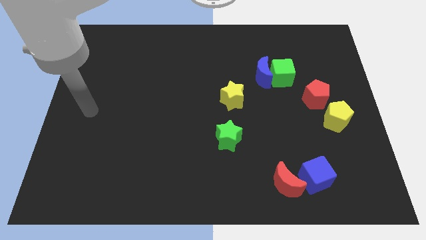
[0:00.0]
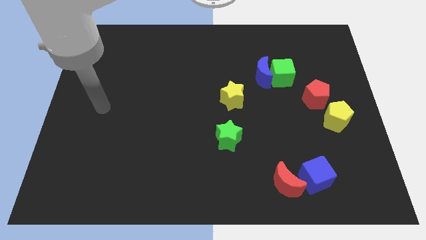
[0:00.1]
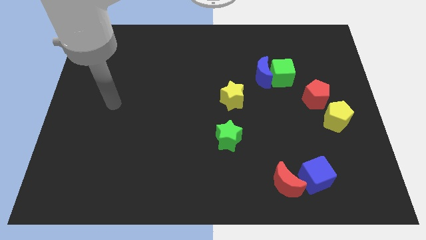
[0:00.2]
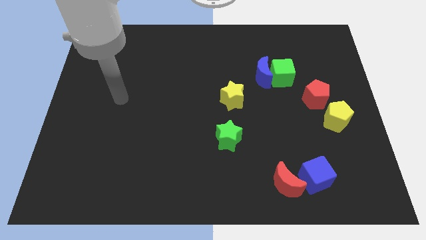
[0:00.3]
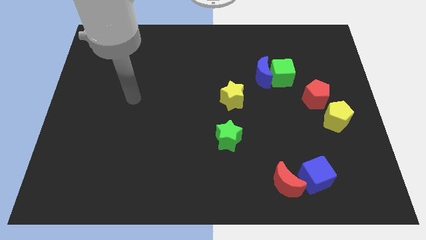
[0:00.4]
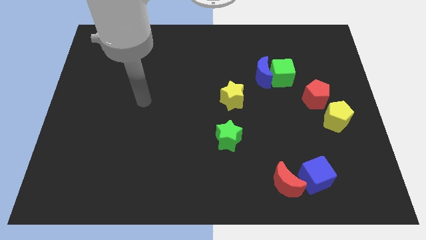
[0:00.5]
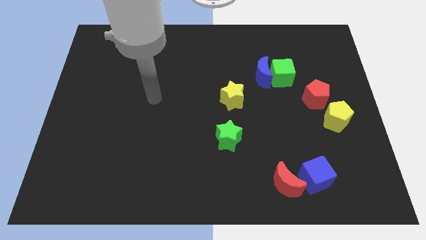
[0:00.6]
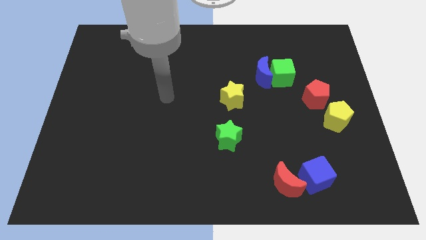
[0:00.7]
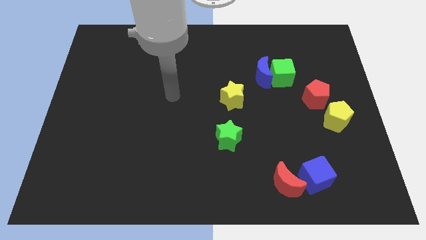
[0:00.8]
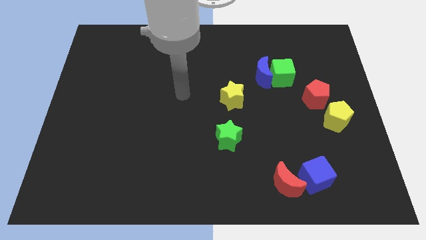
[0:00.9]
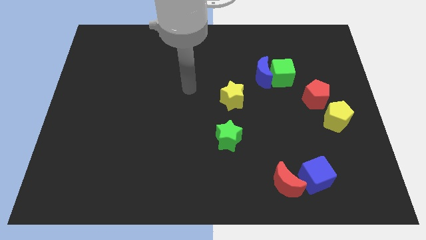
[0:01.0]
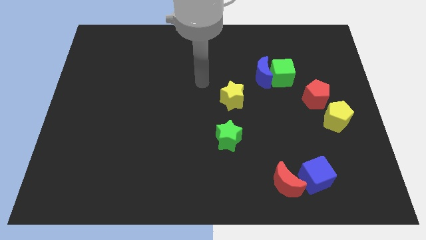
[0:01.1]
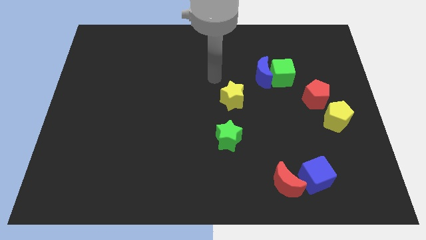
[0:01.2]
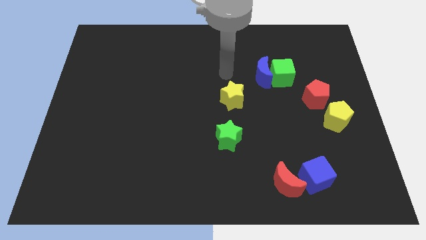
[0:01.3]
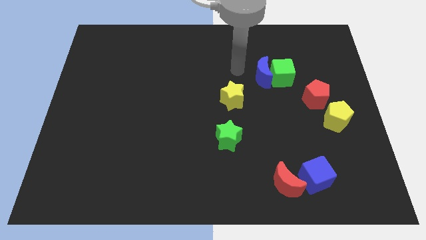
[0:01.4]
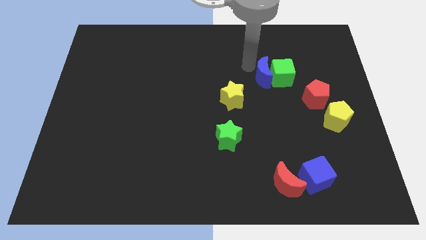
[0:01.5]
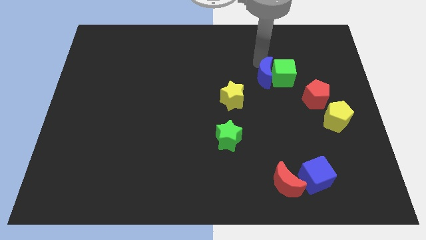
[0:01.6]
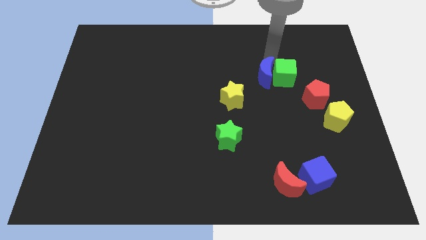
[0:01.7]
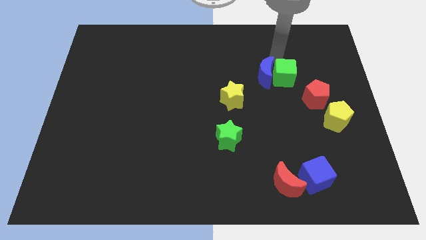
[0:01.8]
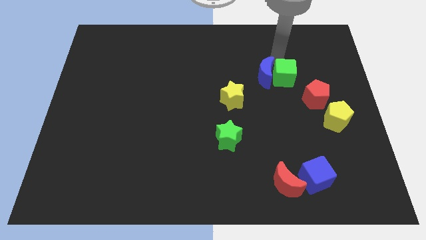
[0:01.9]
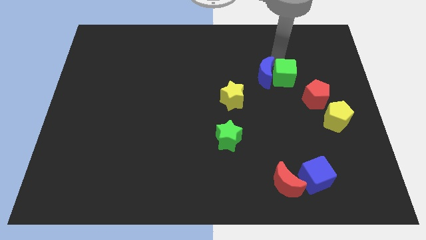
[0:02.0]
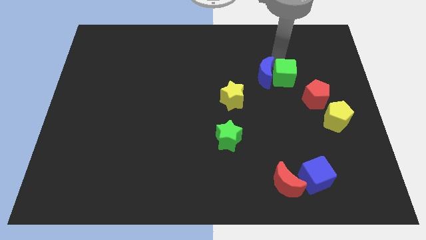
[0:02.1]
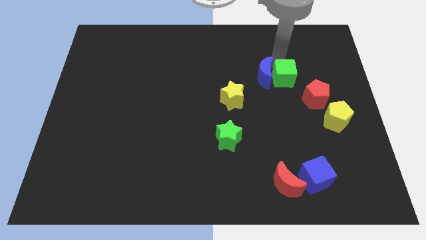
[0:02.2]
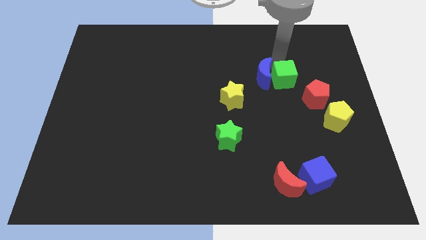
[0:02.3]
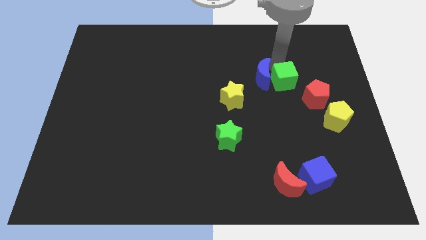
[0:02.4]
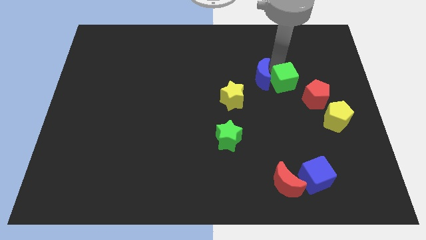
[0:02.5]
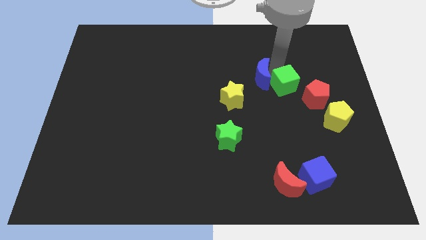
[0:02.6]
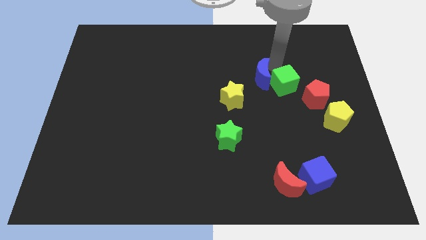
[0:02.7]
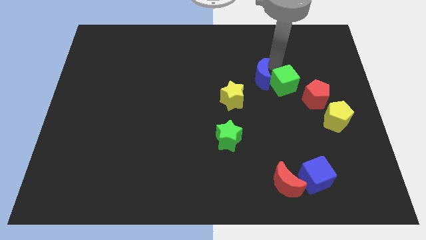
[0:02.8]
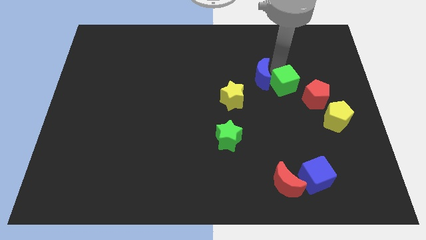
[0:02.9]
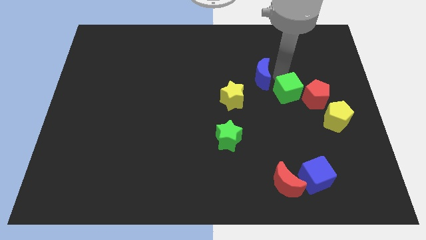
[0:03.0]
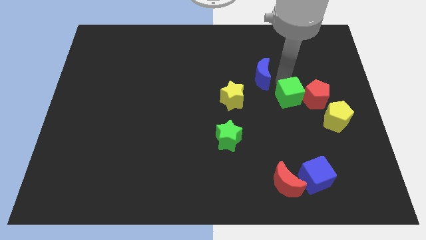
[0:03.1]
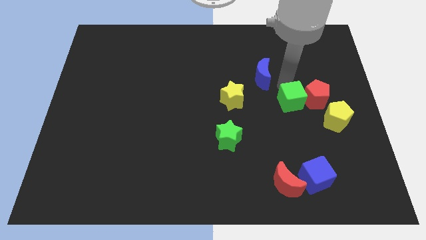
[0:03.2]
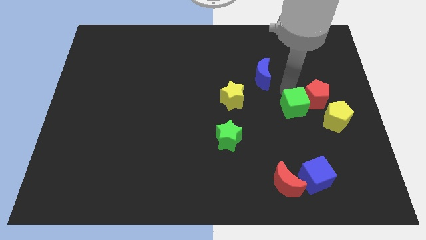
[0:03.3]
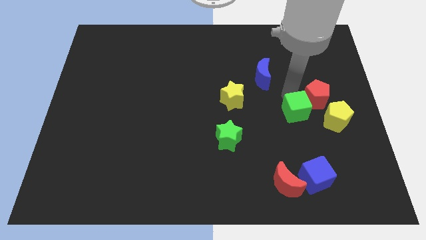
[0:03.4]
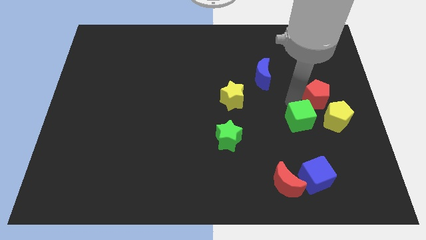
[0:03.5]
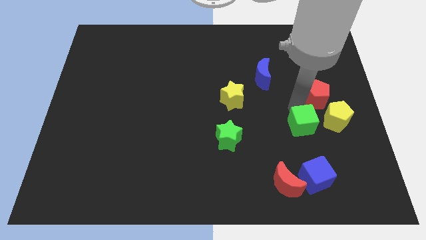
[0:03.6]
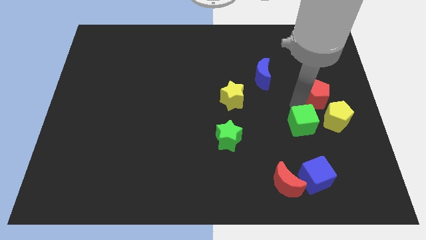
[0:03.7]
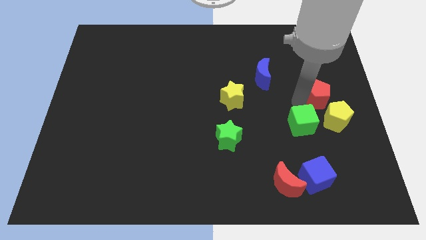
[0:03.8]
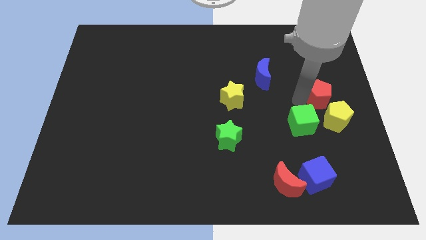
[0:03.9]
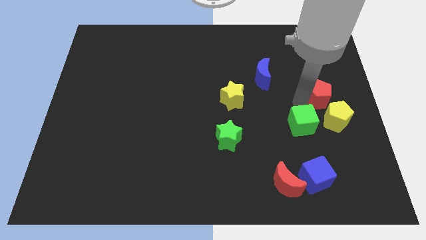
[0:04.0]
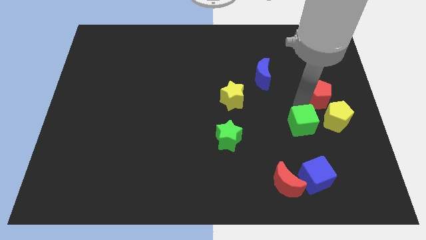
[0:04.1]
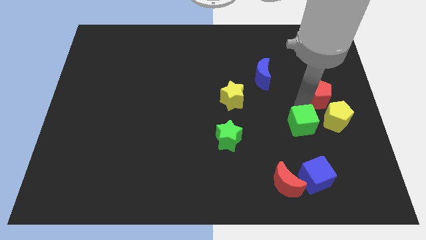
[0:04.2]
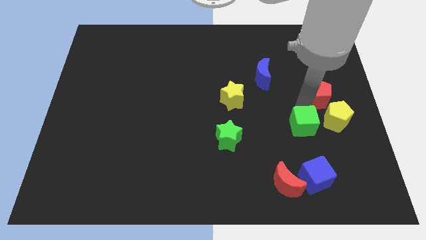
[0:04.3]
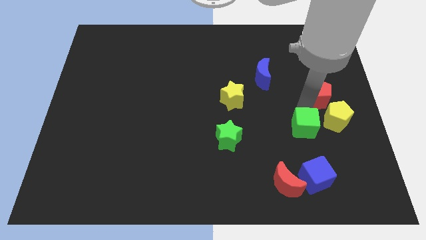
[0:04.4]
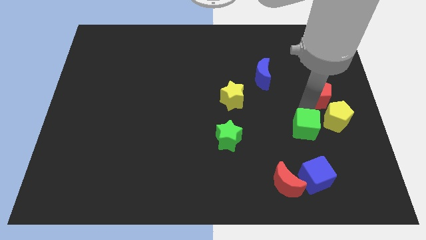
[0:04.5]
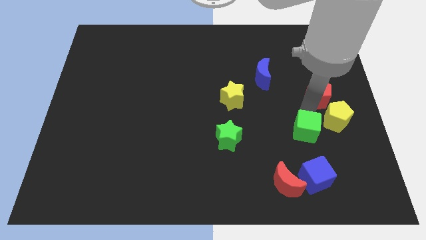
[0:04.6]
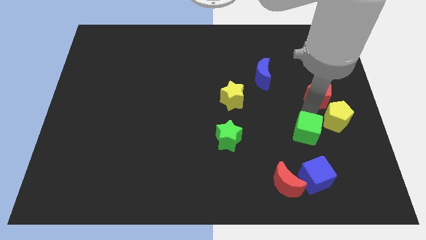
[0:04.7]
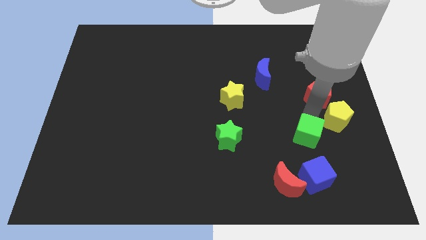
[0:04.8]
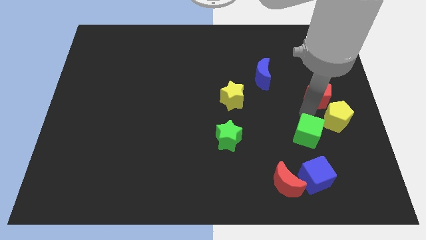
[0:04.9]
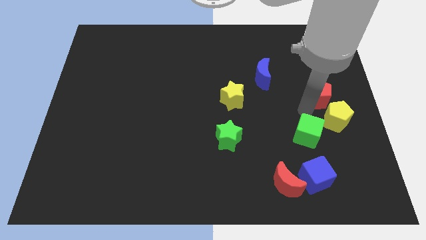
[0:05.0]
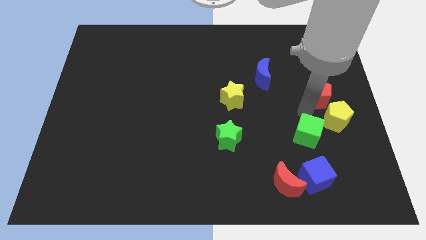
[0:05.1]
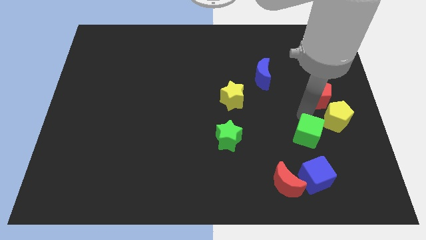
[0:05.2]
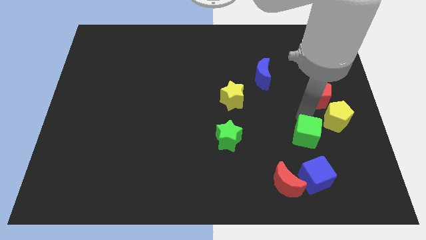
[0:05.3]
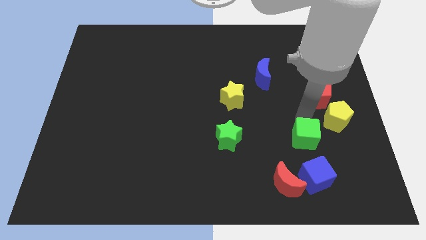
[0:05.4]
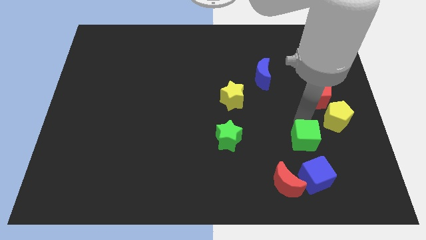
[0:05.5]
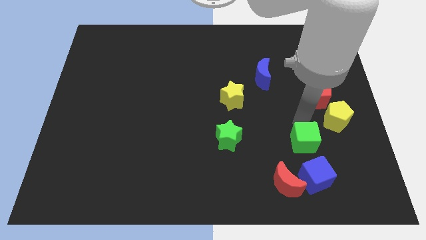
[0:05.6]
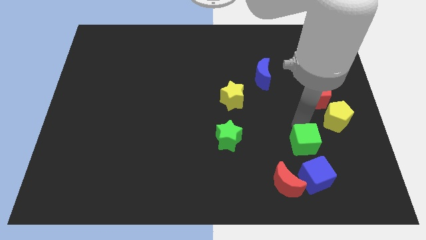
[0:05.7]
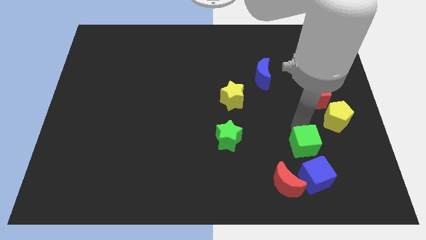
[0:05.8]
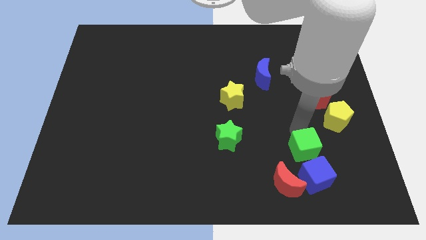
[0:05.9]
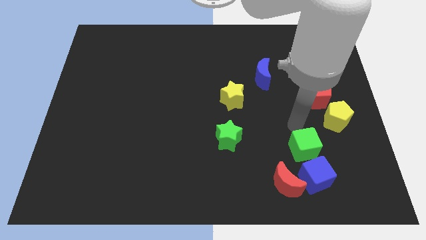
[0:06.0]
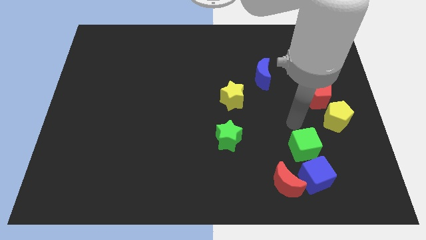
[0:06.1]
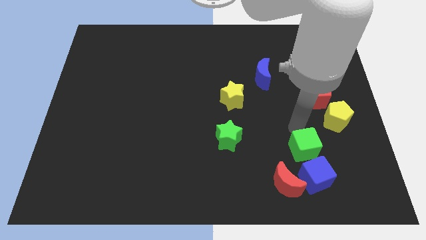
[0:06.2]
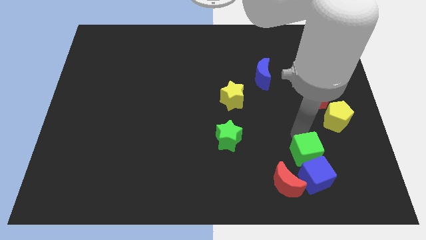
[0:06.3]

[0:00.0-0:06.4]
slide the green cube towards the blue cube

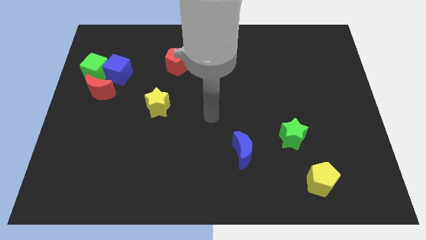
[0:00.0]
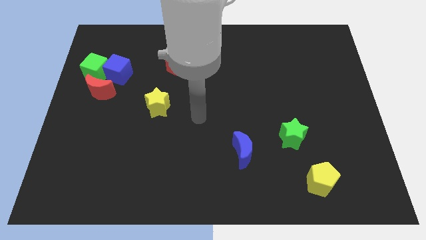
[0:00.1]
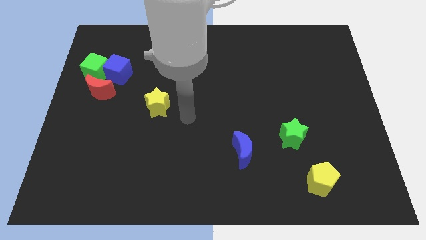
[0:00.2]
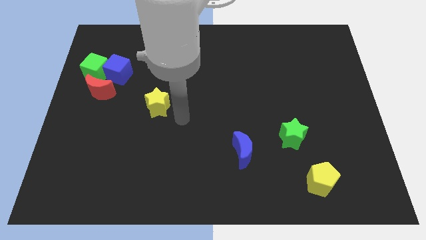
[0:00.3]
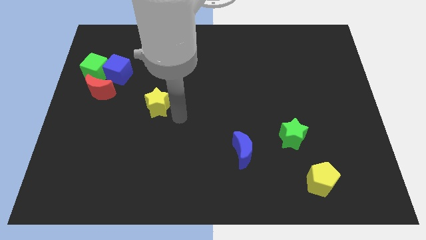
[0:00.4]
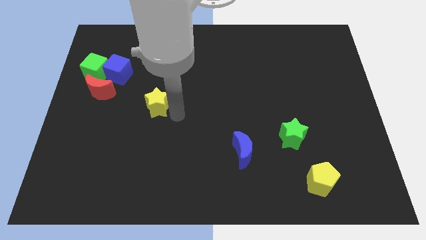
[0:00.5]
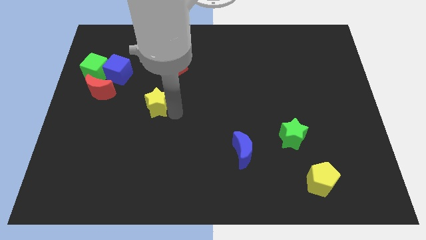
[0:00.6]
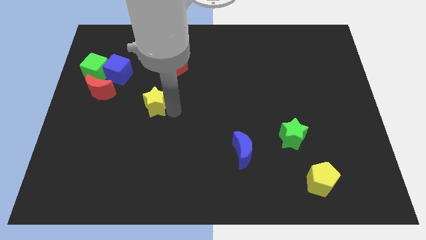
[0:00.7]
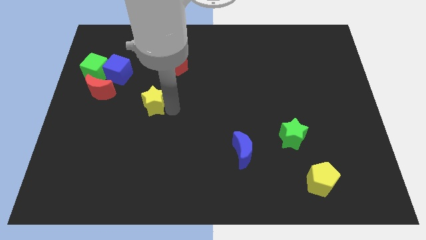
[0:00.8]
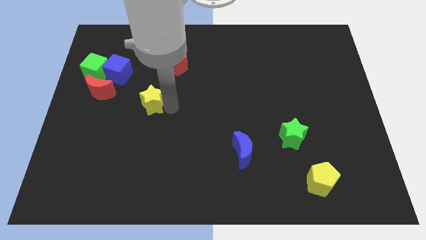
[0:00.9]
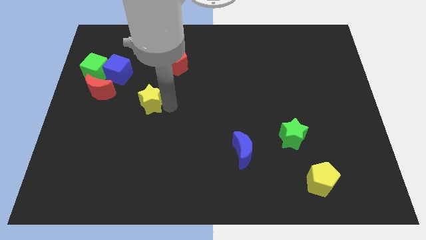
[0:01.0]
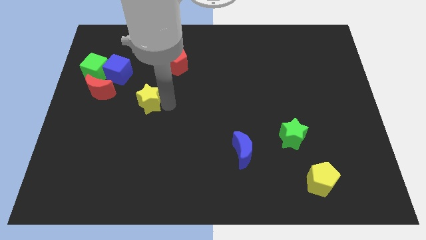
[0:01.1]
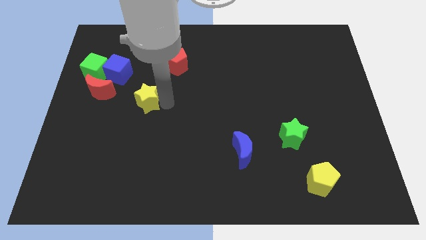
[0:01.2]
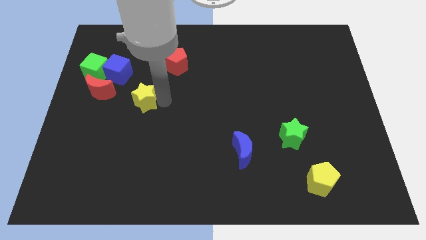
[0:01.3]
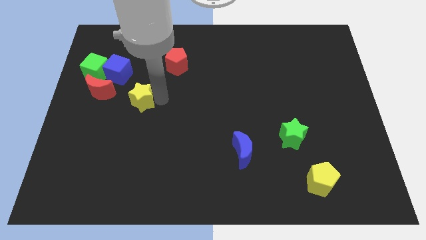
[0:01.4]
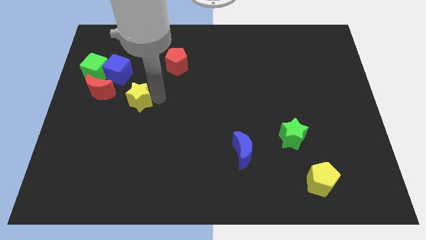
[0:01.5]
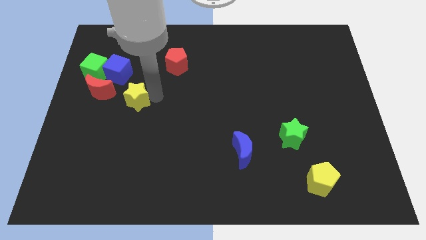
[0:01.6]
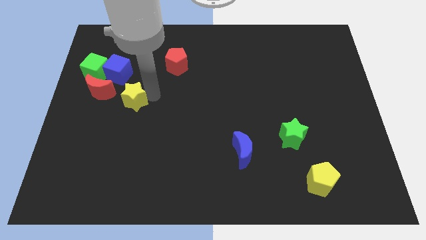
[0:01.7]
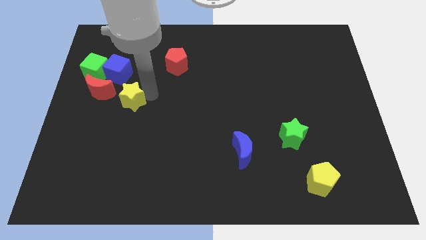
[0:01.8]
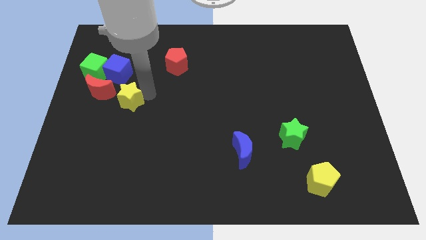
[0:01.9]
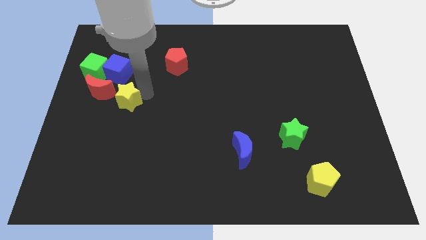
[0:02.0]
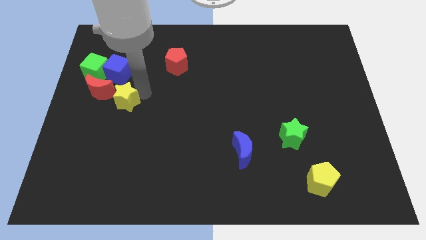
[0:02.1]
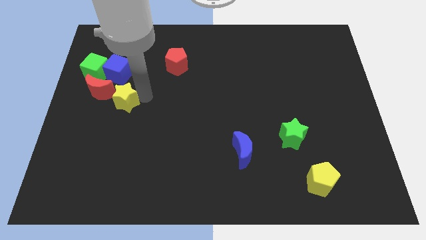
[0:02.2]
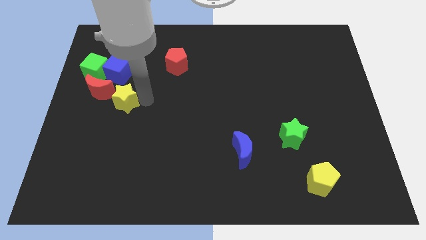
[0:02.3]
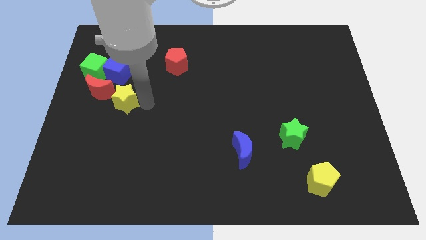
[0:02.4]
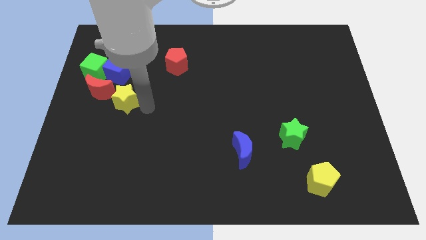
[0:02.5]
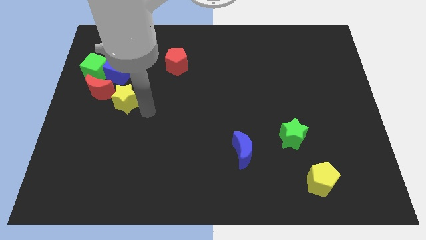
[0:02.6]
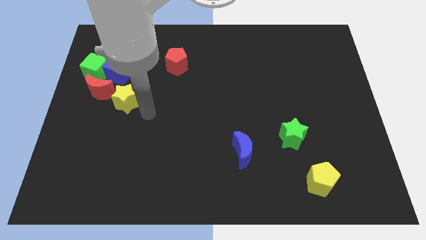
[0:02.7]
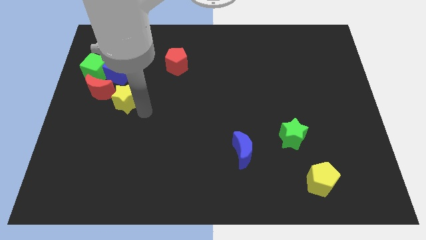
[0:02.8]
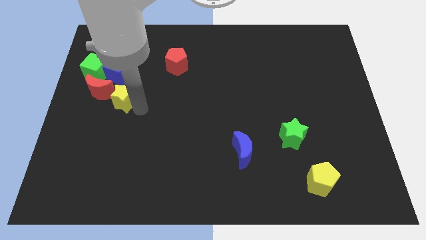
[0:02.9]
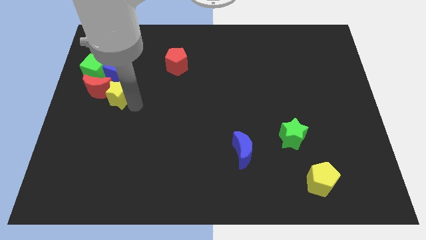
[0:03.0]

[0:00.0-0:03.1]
put the yellow star close to the red moon
